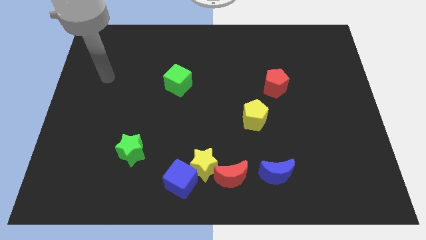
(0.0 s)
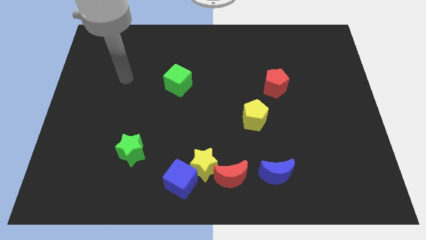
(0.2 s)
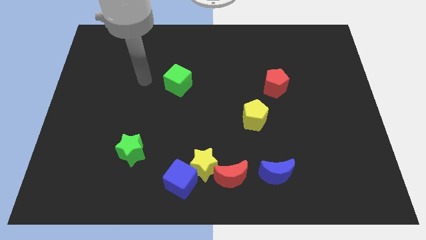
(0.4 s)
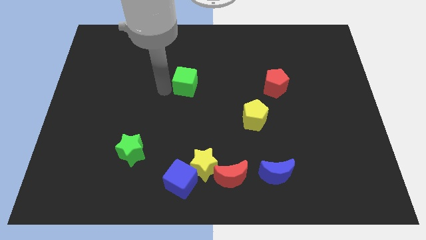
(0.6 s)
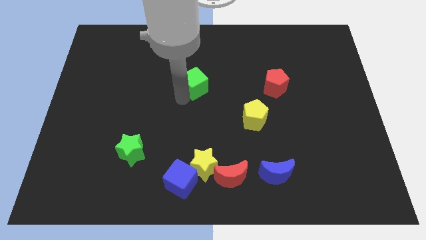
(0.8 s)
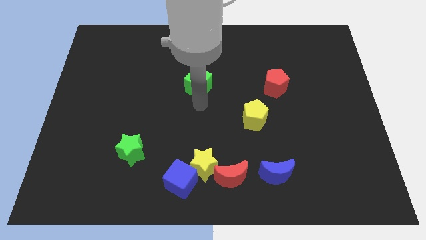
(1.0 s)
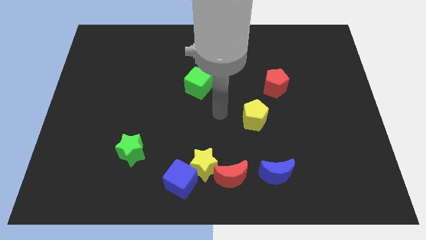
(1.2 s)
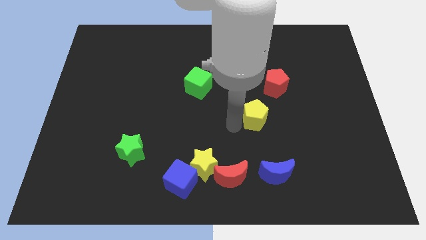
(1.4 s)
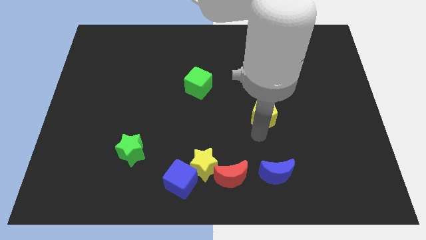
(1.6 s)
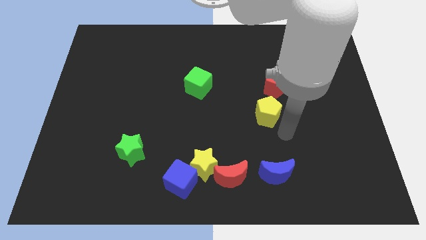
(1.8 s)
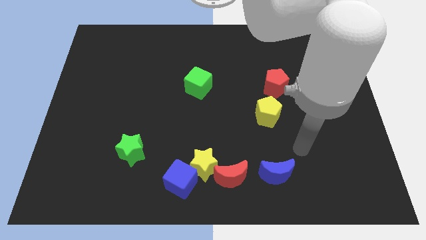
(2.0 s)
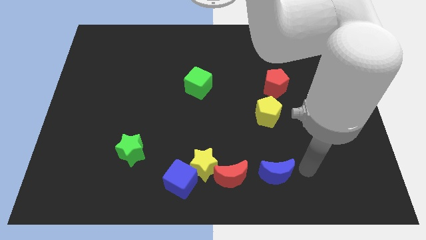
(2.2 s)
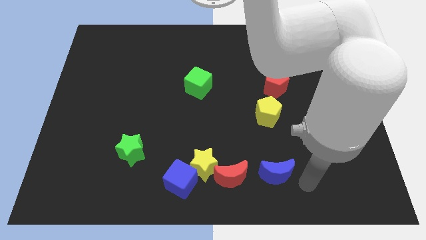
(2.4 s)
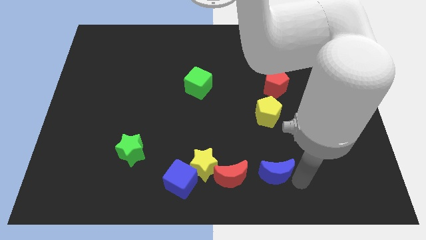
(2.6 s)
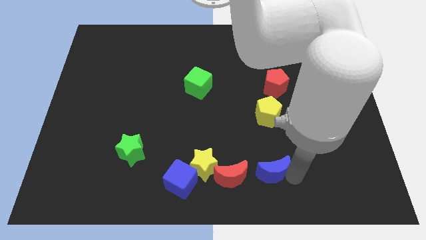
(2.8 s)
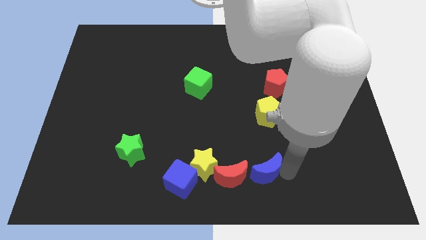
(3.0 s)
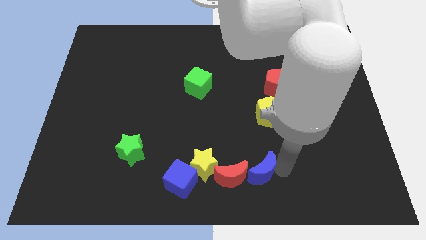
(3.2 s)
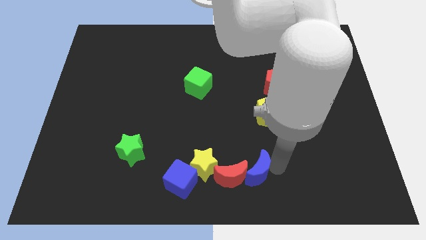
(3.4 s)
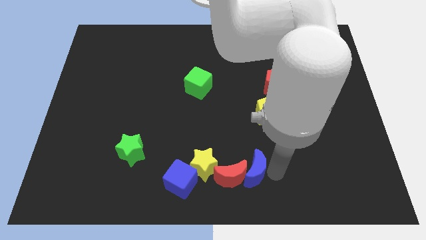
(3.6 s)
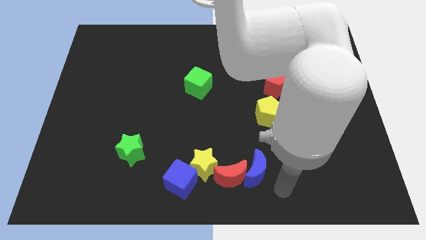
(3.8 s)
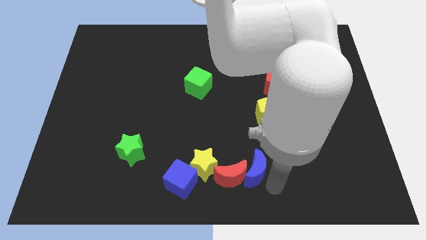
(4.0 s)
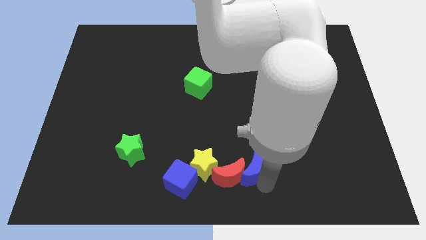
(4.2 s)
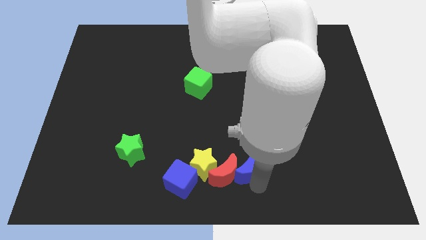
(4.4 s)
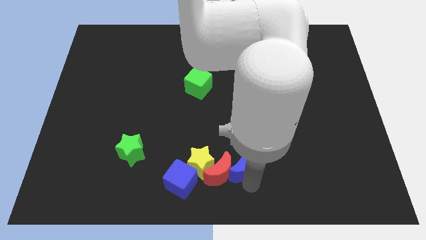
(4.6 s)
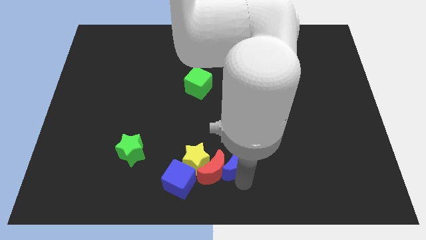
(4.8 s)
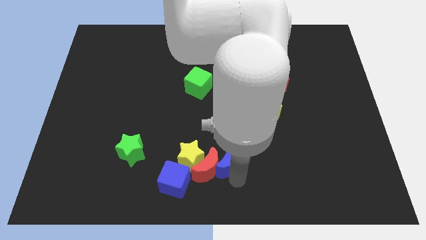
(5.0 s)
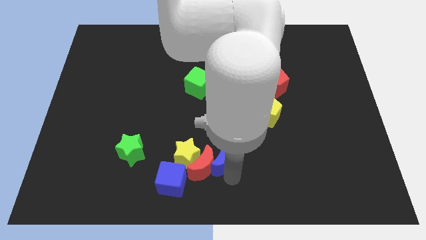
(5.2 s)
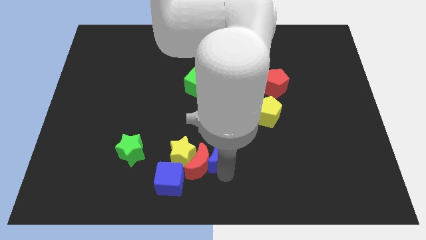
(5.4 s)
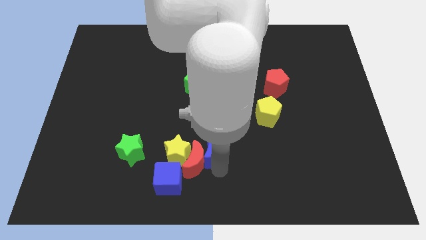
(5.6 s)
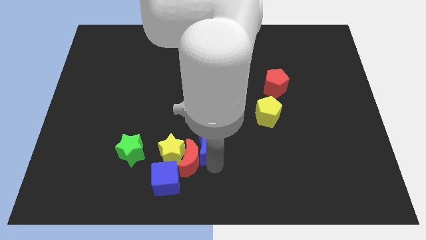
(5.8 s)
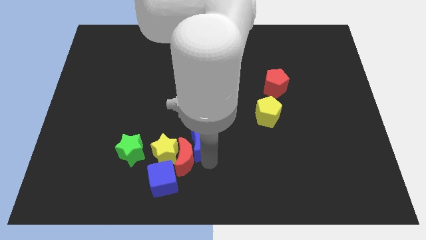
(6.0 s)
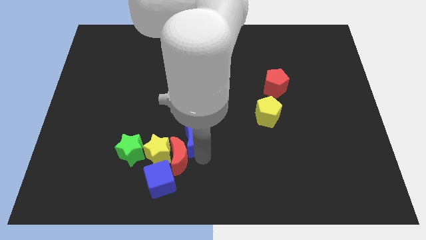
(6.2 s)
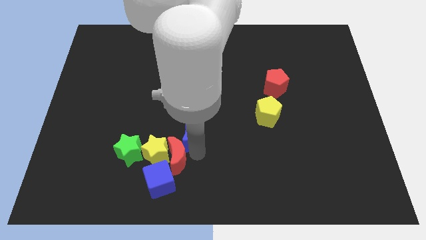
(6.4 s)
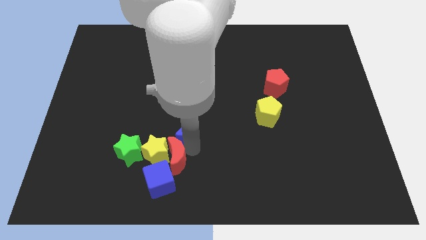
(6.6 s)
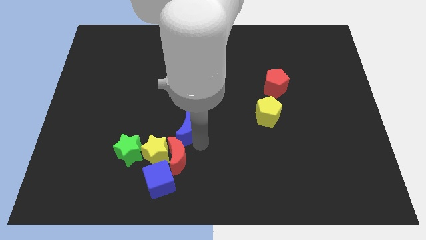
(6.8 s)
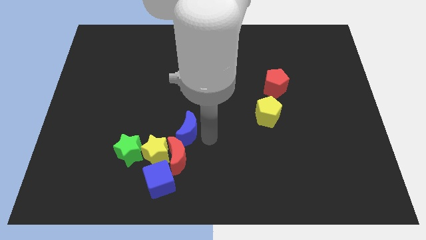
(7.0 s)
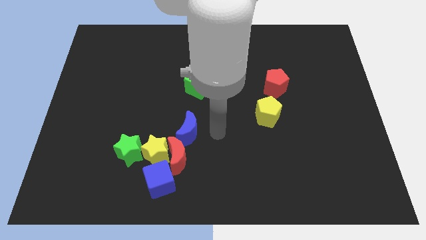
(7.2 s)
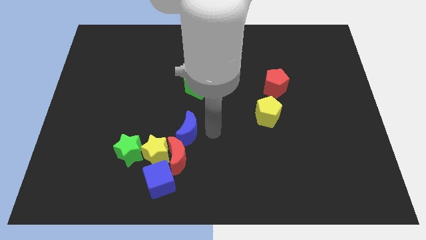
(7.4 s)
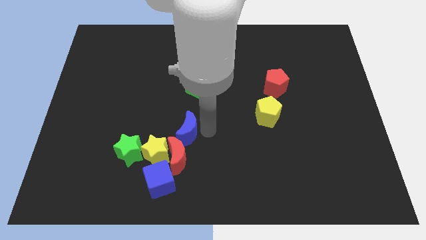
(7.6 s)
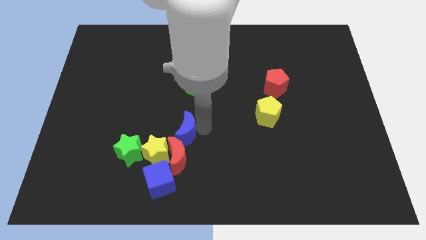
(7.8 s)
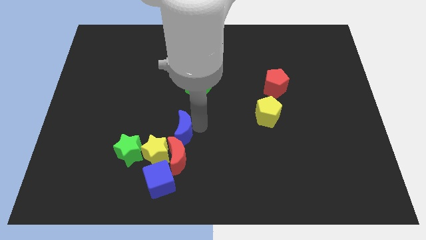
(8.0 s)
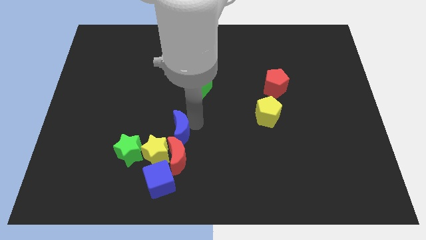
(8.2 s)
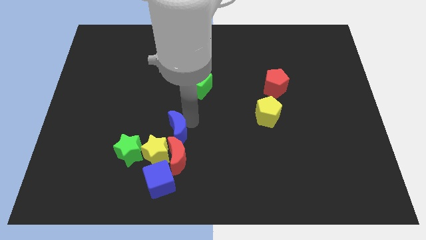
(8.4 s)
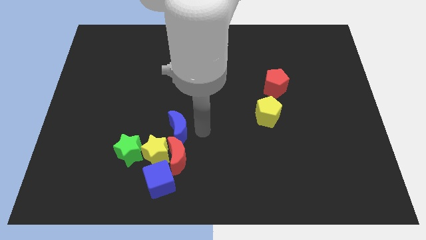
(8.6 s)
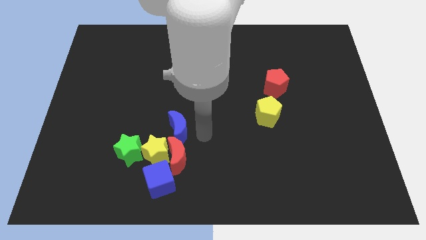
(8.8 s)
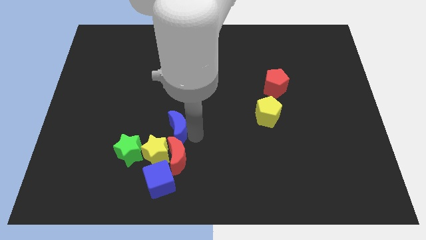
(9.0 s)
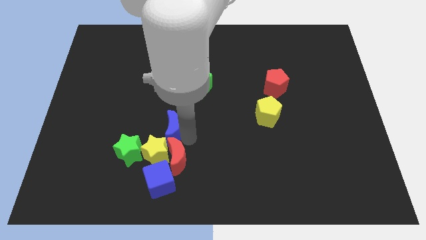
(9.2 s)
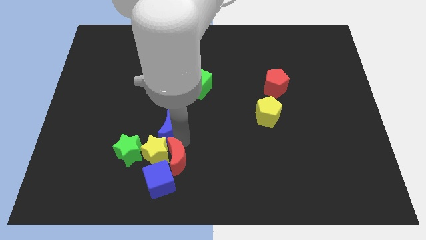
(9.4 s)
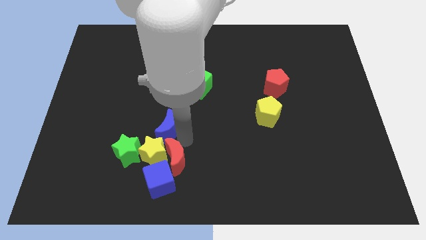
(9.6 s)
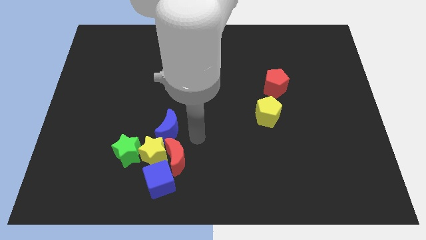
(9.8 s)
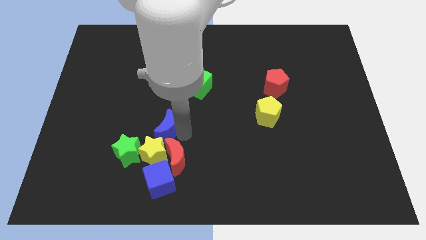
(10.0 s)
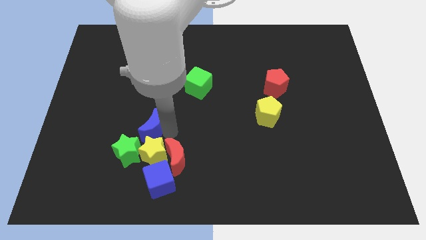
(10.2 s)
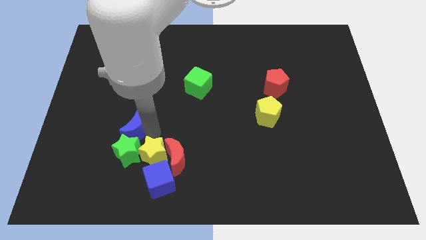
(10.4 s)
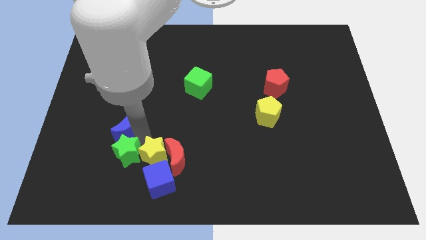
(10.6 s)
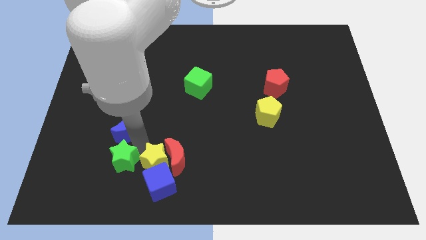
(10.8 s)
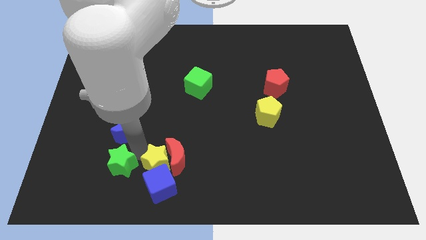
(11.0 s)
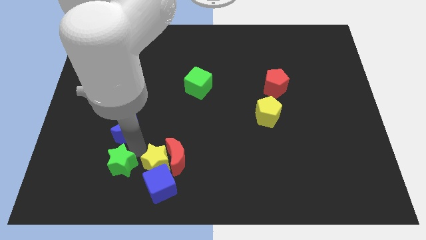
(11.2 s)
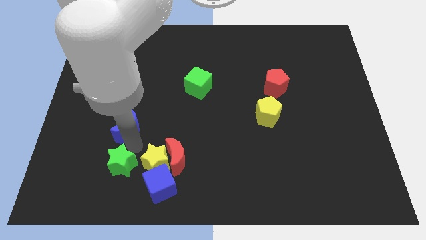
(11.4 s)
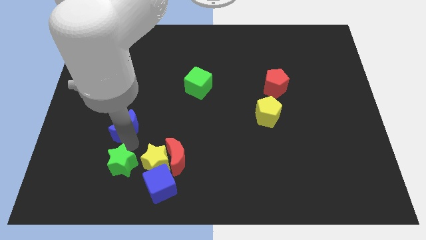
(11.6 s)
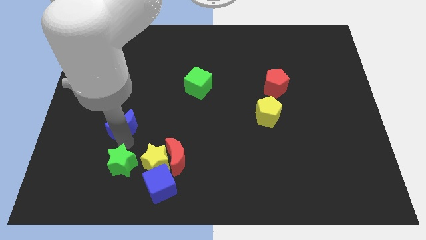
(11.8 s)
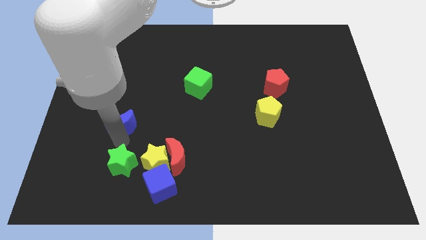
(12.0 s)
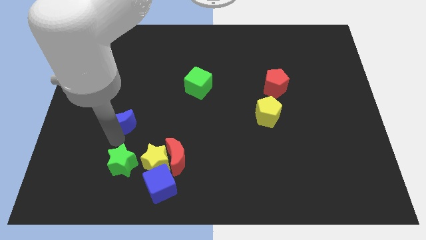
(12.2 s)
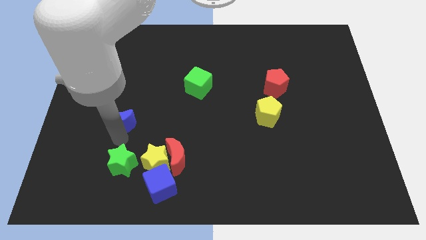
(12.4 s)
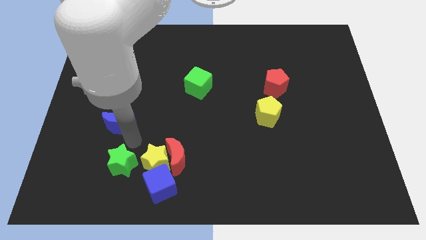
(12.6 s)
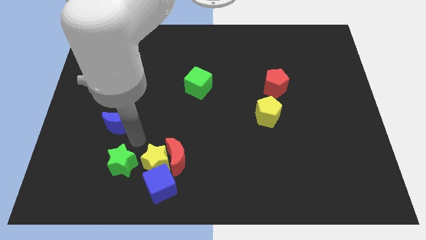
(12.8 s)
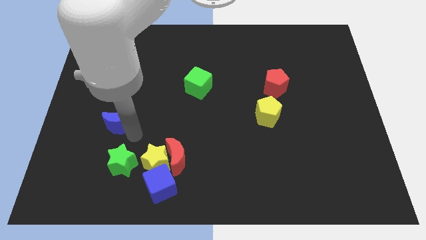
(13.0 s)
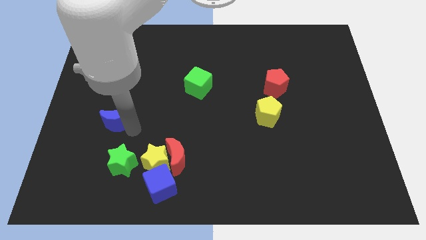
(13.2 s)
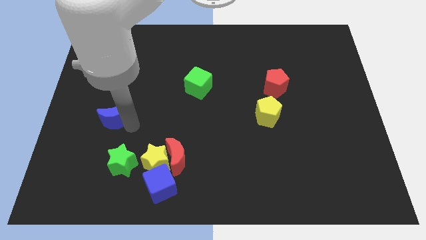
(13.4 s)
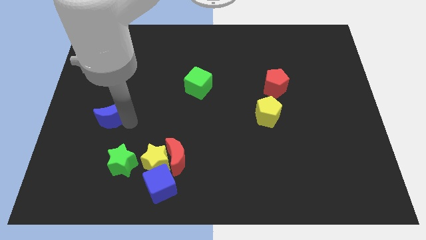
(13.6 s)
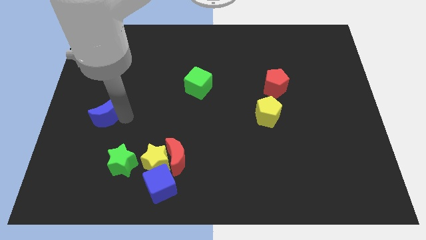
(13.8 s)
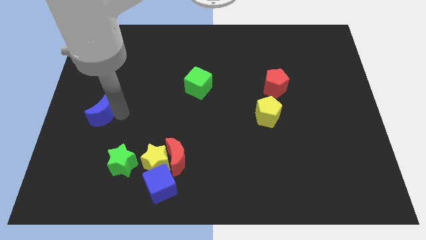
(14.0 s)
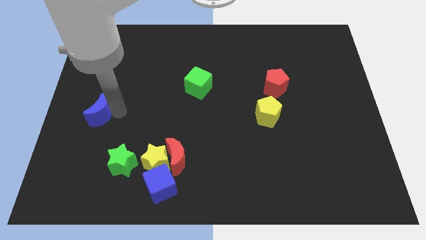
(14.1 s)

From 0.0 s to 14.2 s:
push the blue moon to the left side of the board
